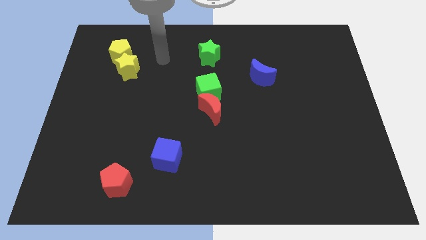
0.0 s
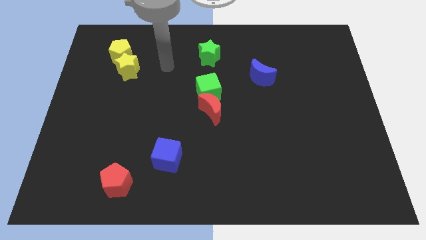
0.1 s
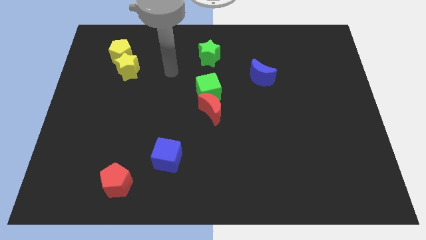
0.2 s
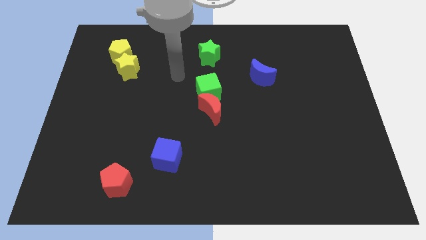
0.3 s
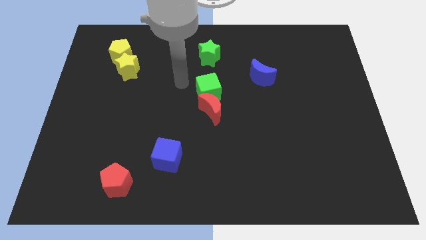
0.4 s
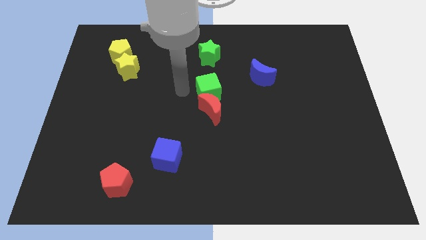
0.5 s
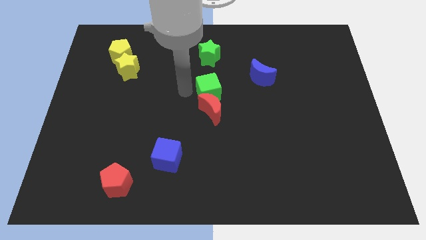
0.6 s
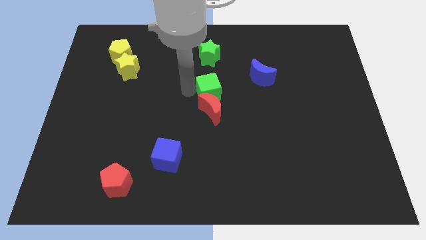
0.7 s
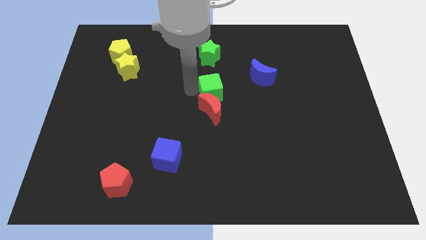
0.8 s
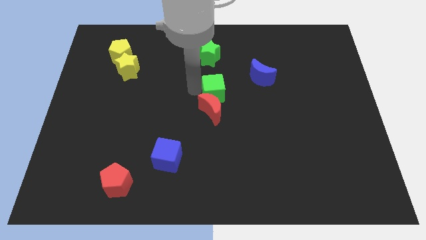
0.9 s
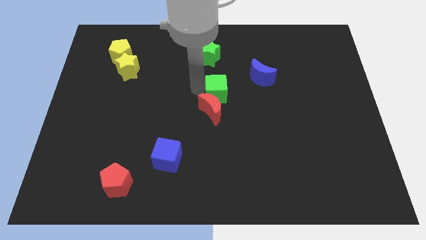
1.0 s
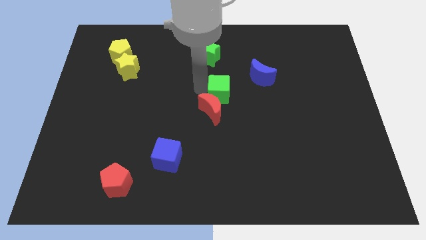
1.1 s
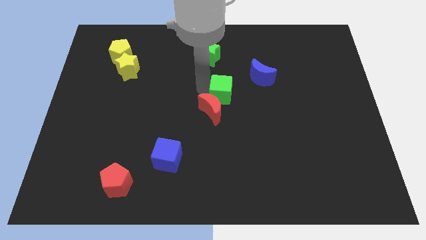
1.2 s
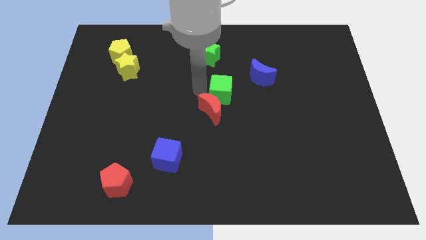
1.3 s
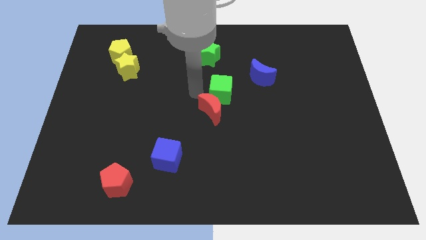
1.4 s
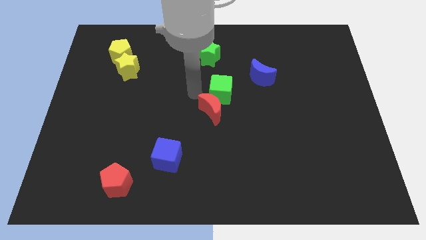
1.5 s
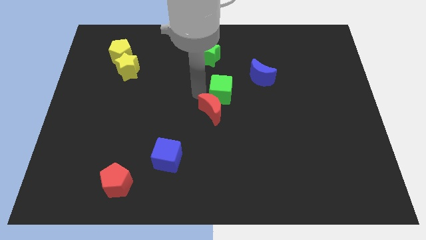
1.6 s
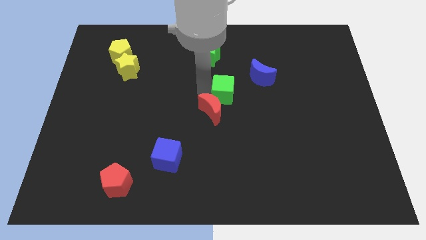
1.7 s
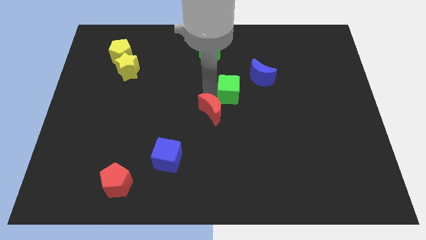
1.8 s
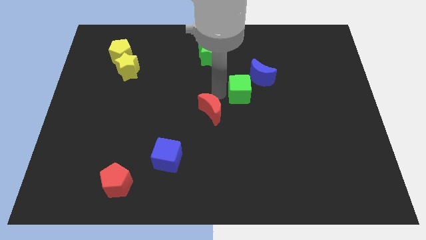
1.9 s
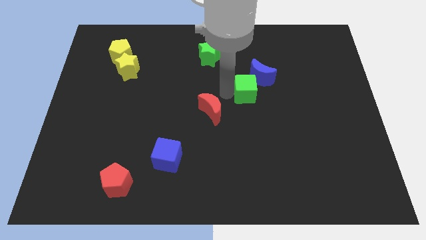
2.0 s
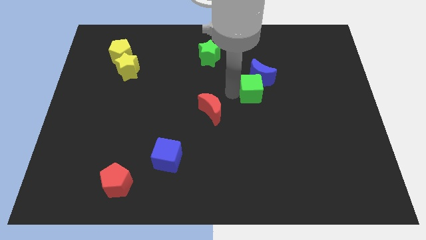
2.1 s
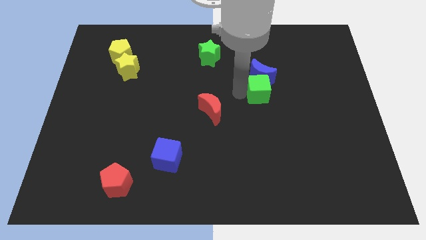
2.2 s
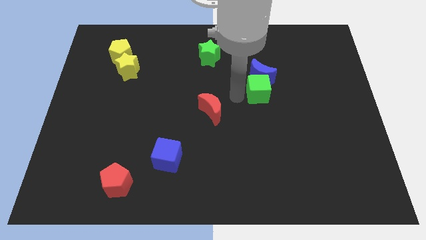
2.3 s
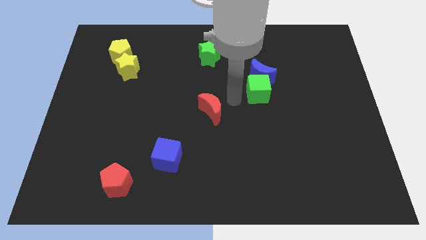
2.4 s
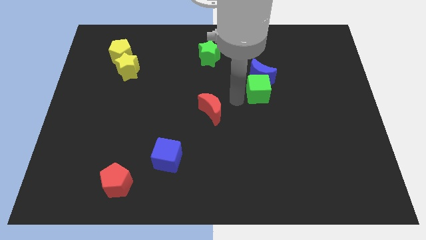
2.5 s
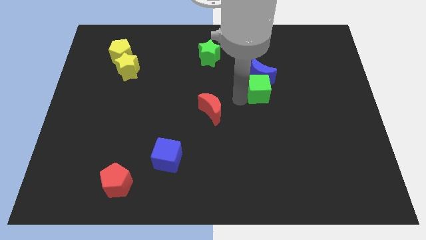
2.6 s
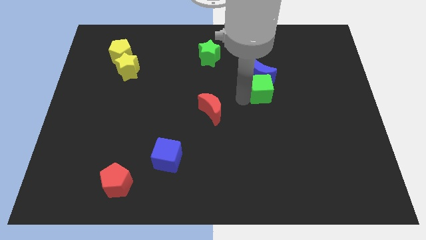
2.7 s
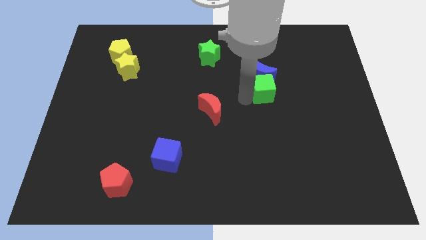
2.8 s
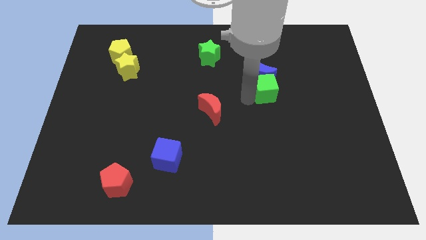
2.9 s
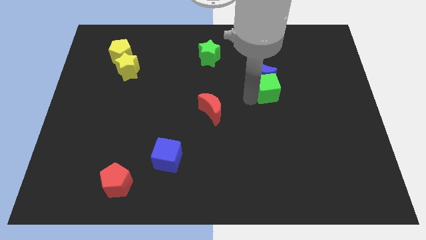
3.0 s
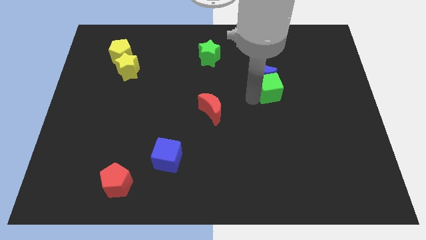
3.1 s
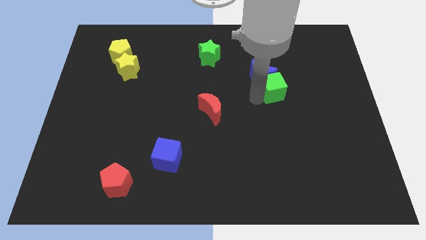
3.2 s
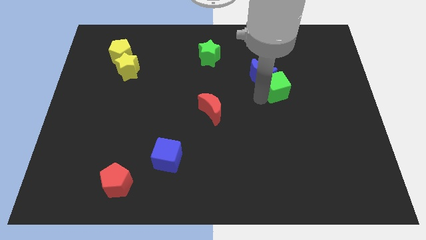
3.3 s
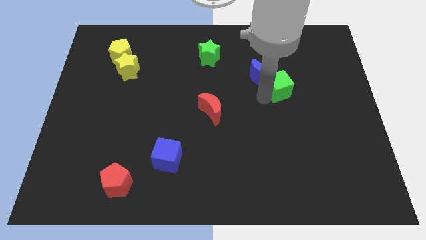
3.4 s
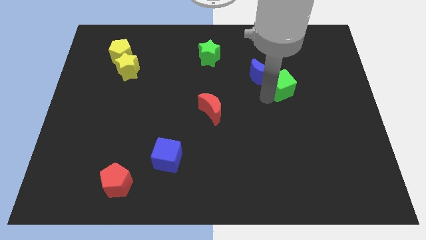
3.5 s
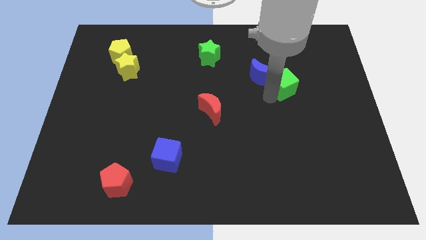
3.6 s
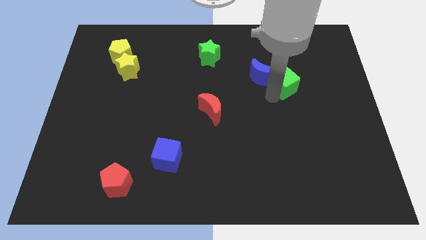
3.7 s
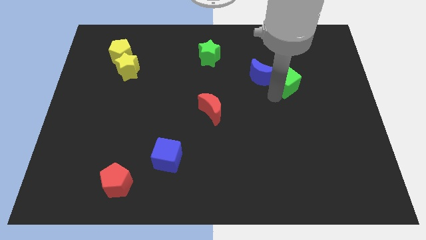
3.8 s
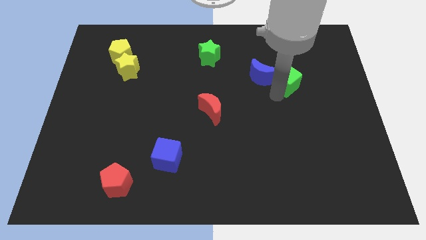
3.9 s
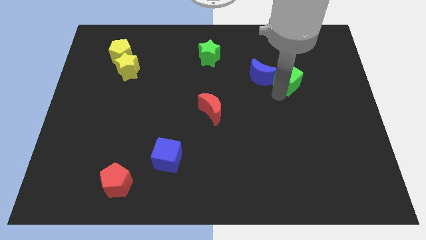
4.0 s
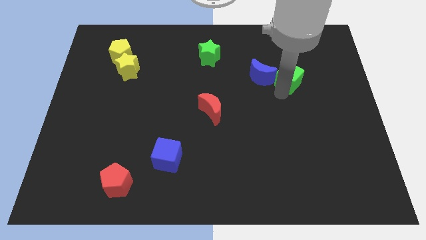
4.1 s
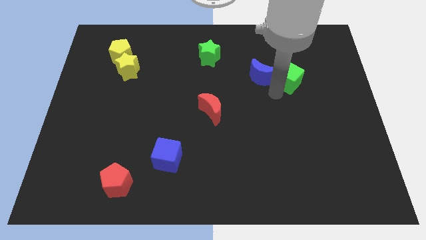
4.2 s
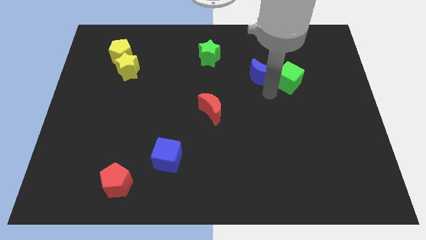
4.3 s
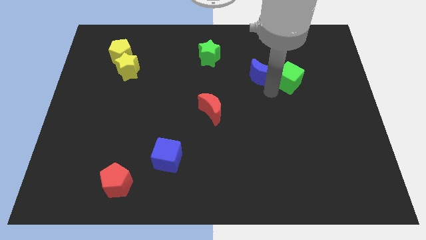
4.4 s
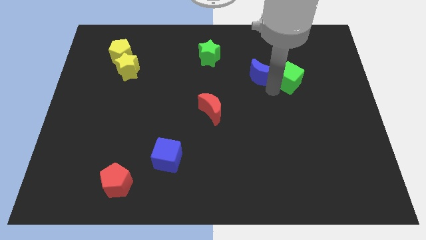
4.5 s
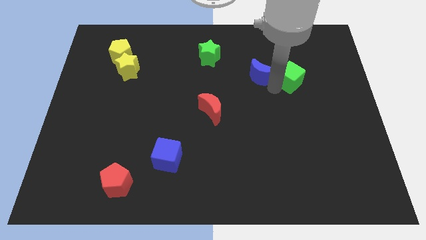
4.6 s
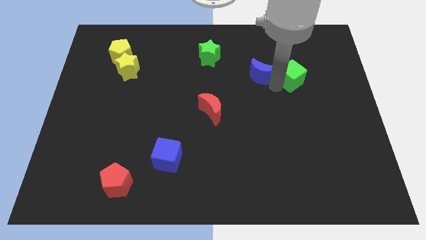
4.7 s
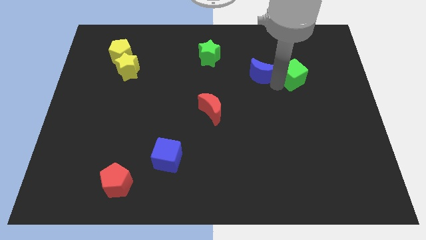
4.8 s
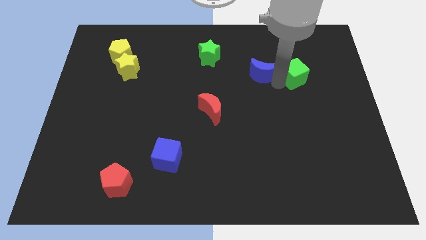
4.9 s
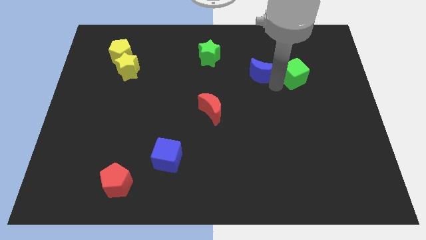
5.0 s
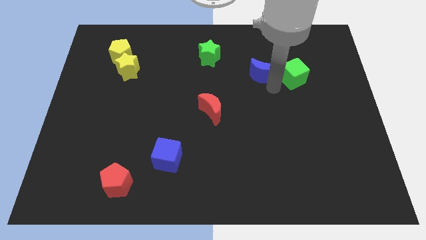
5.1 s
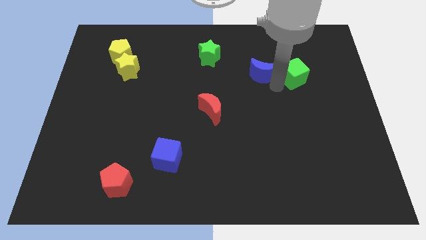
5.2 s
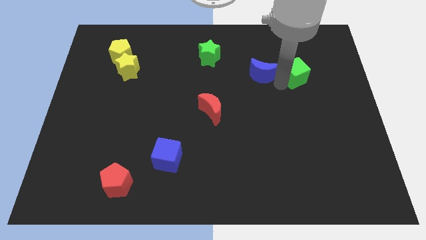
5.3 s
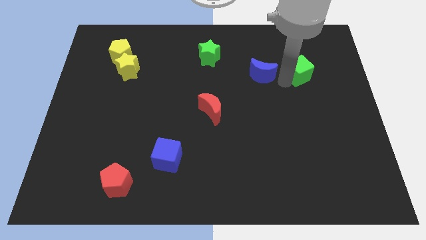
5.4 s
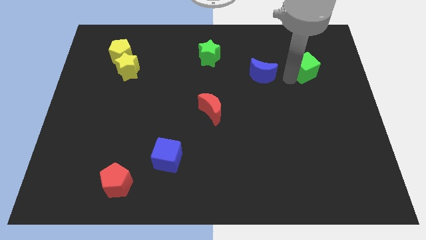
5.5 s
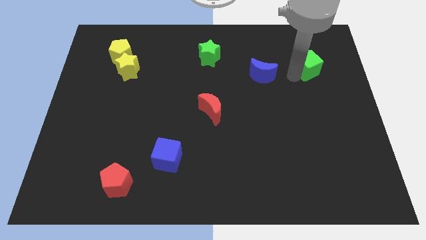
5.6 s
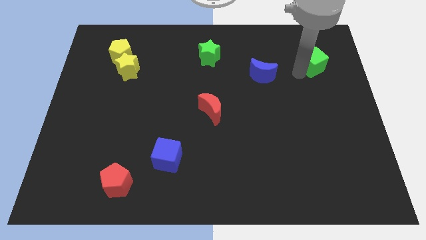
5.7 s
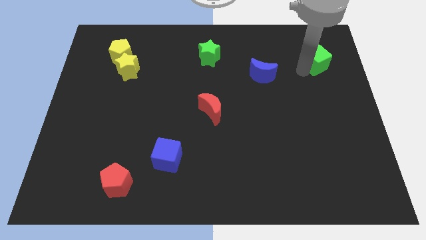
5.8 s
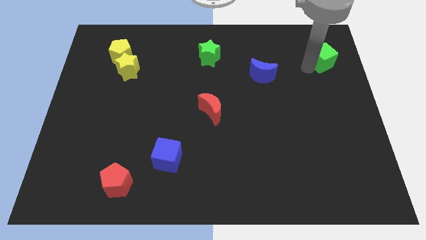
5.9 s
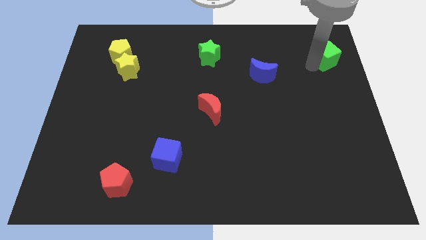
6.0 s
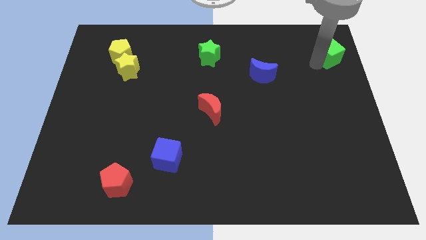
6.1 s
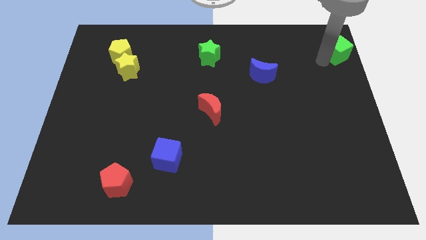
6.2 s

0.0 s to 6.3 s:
push the green cube to the upper right corner

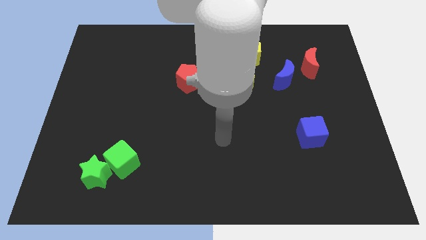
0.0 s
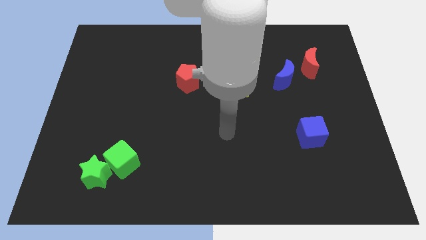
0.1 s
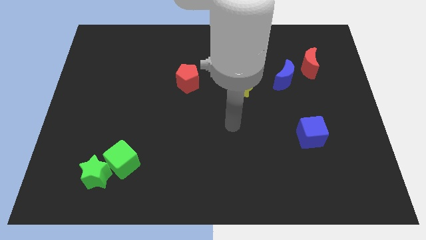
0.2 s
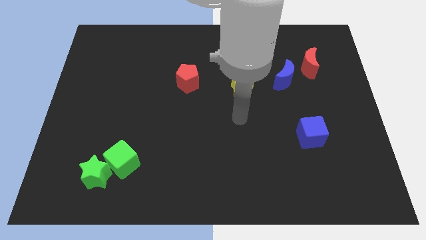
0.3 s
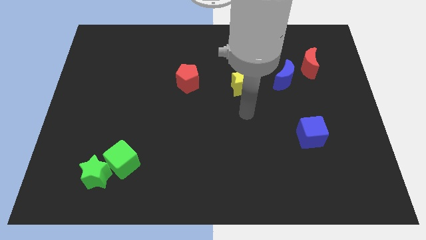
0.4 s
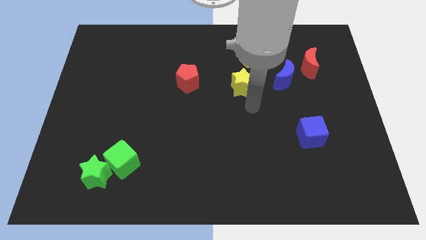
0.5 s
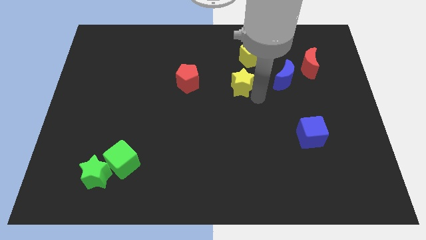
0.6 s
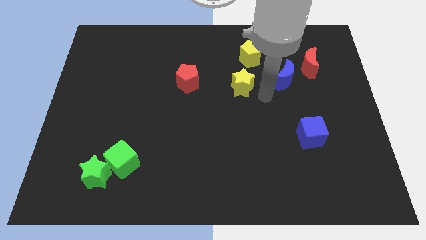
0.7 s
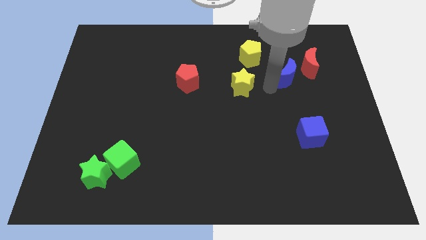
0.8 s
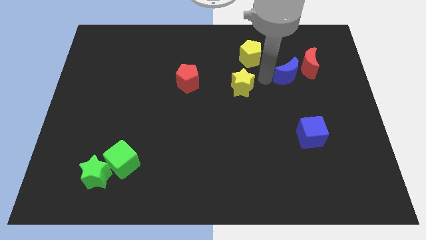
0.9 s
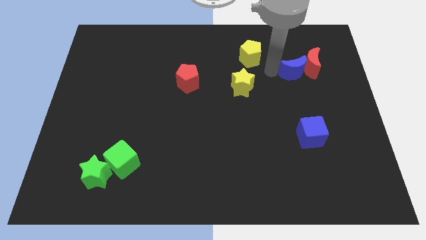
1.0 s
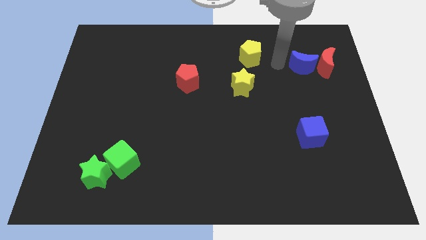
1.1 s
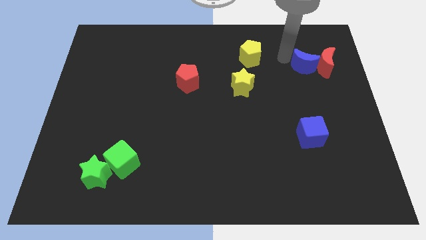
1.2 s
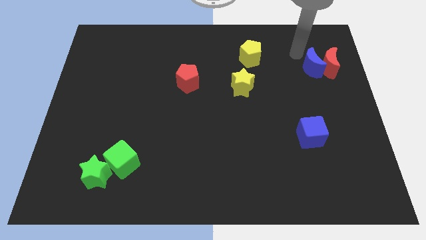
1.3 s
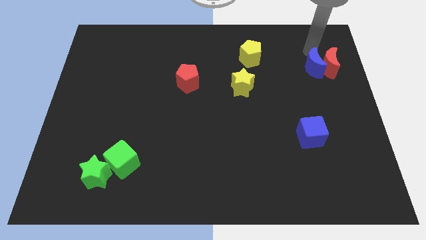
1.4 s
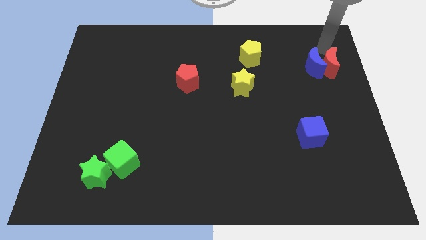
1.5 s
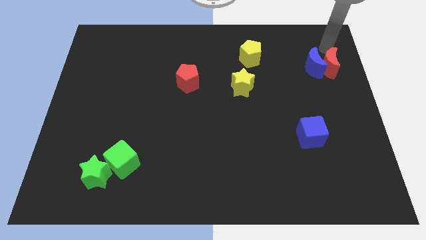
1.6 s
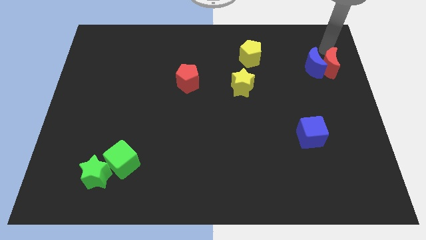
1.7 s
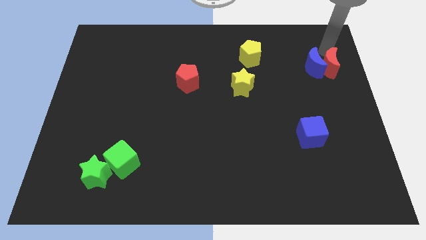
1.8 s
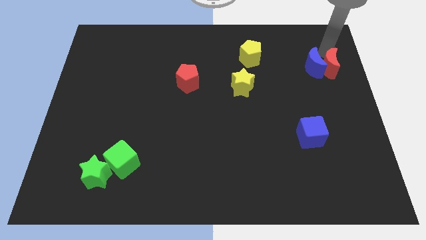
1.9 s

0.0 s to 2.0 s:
move the red moon to the center right
